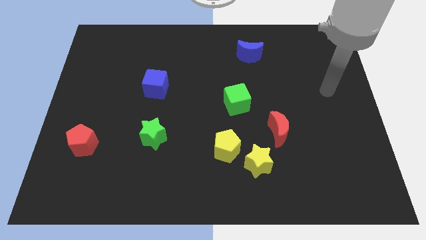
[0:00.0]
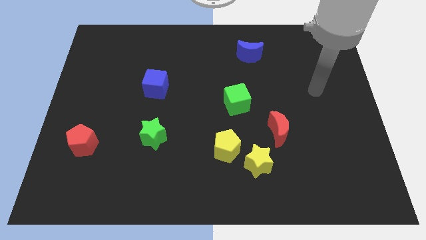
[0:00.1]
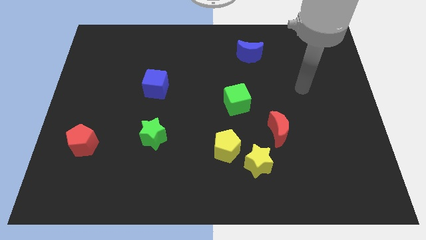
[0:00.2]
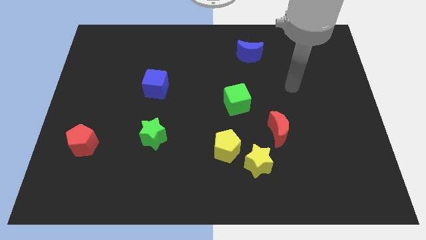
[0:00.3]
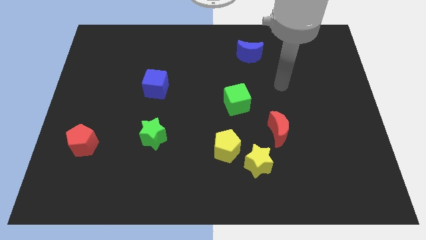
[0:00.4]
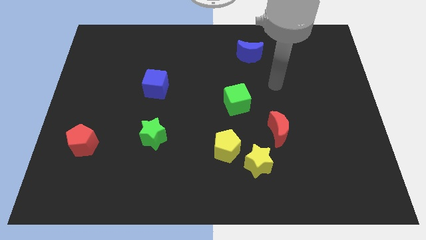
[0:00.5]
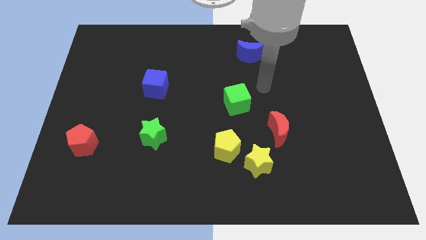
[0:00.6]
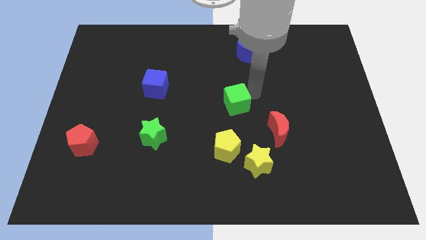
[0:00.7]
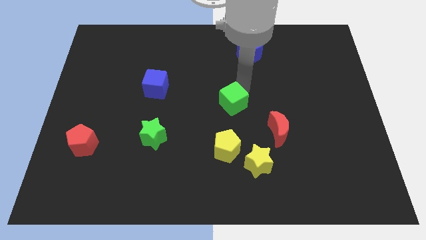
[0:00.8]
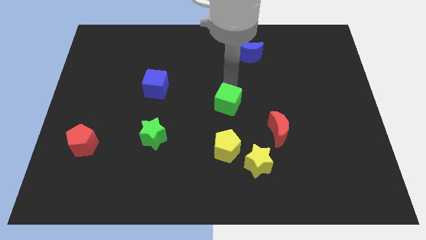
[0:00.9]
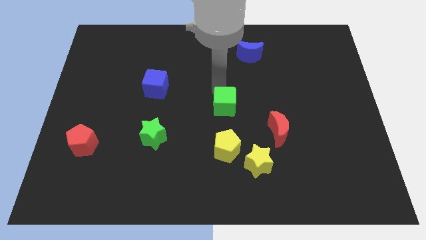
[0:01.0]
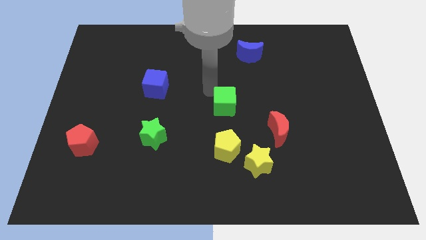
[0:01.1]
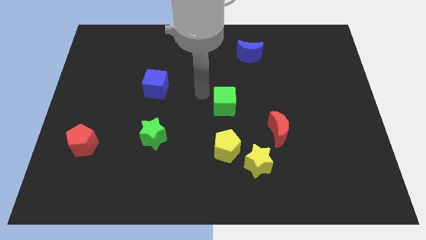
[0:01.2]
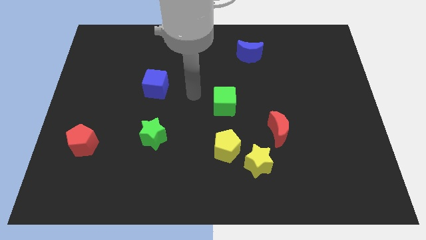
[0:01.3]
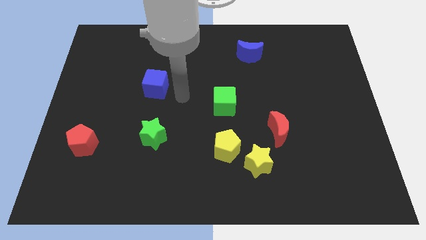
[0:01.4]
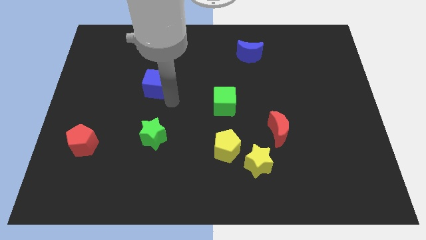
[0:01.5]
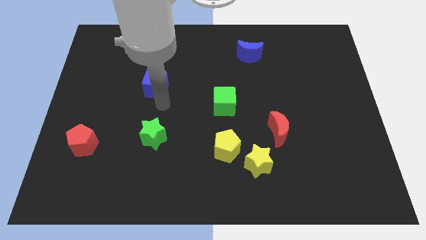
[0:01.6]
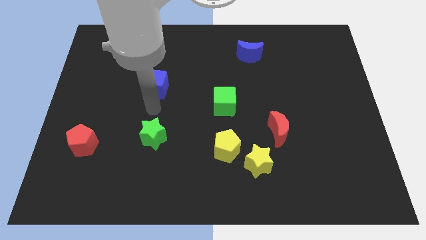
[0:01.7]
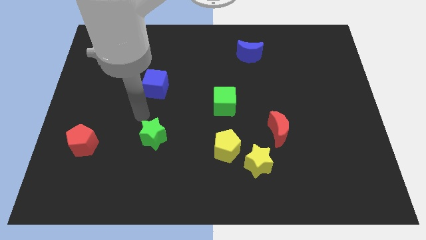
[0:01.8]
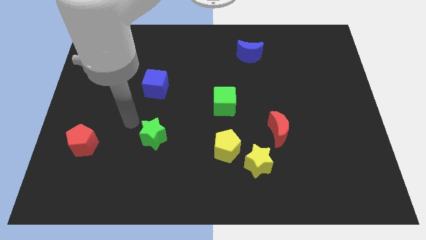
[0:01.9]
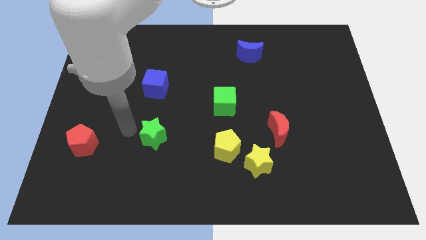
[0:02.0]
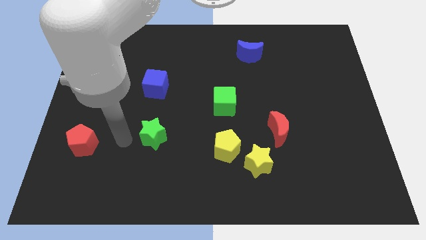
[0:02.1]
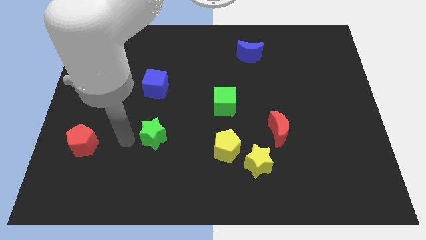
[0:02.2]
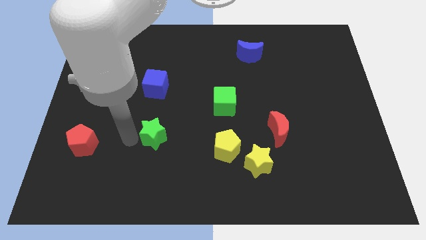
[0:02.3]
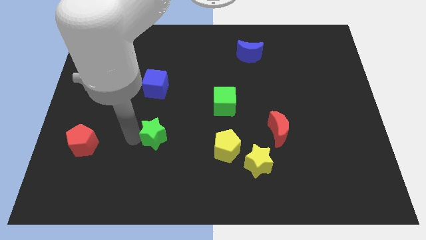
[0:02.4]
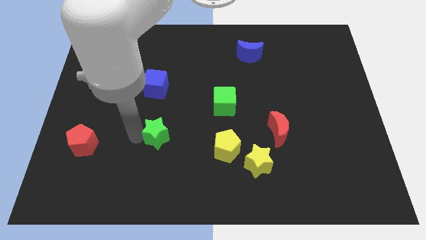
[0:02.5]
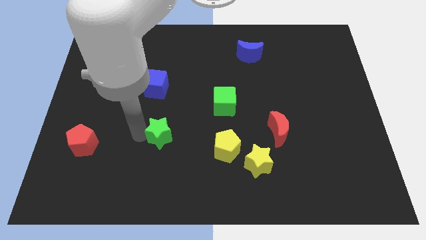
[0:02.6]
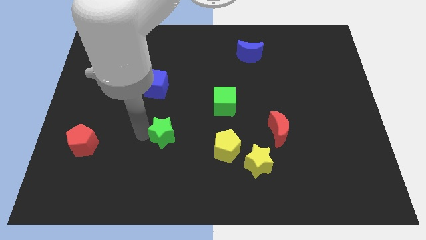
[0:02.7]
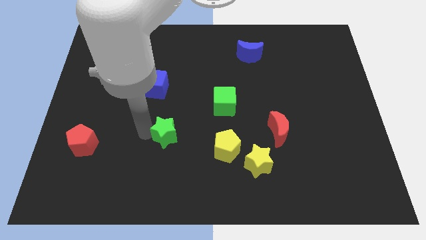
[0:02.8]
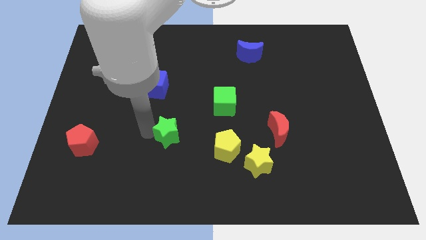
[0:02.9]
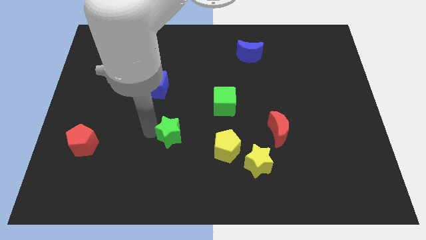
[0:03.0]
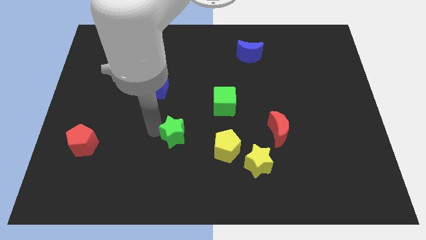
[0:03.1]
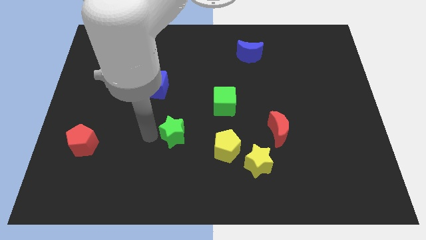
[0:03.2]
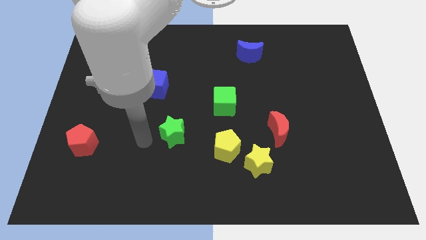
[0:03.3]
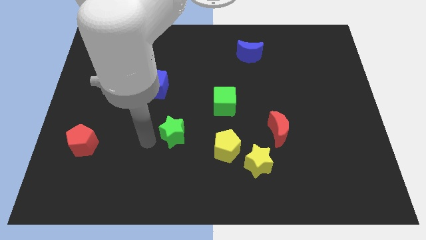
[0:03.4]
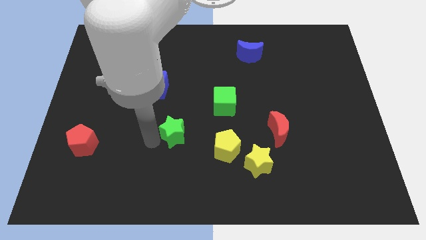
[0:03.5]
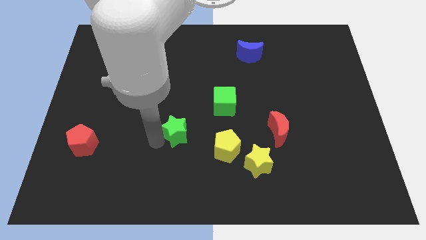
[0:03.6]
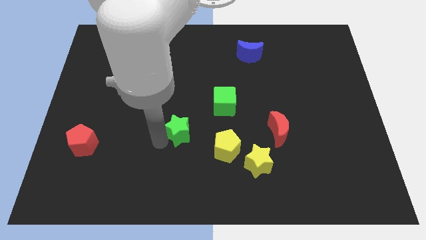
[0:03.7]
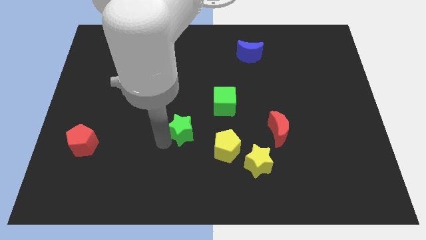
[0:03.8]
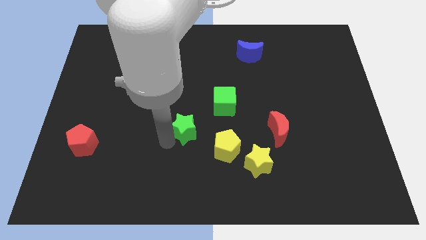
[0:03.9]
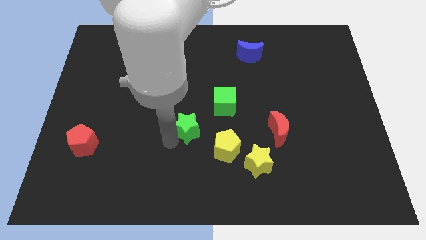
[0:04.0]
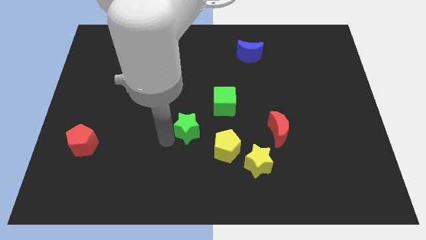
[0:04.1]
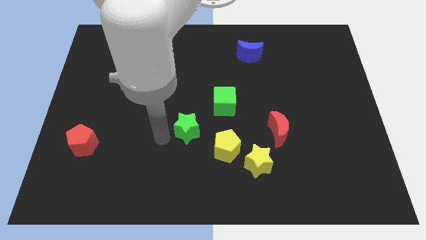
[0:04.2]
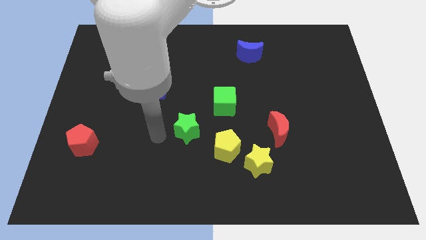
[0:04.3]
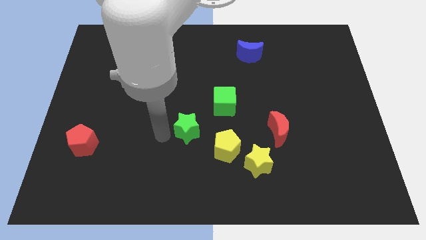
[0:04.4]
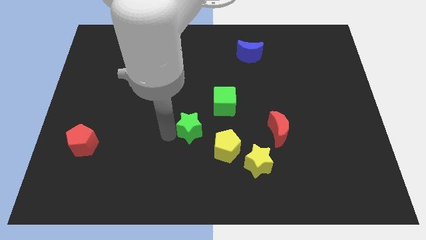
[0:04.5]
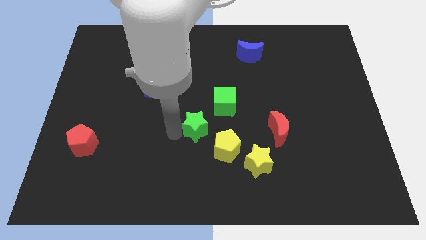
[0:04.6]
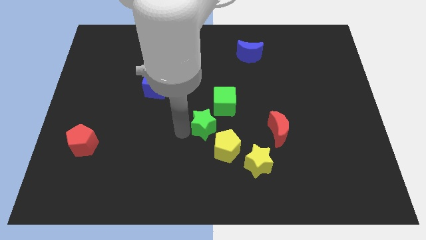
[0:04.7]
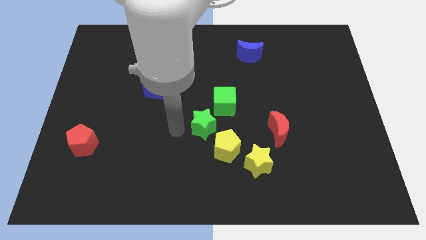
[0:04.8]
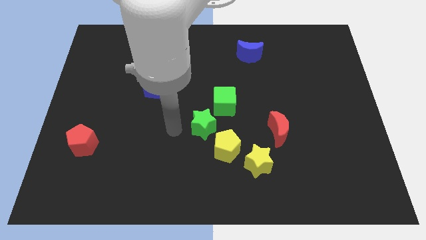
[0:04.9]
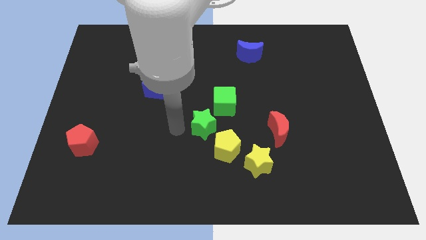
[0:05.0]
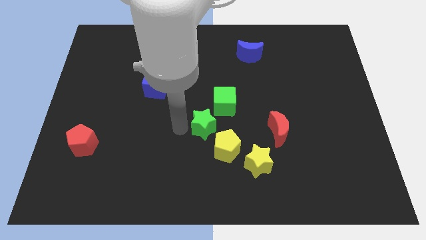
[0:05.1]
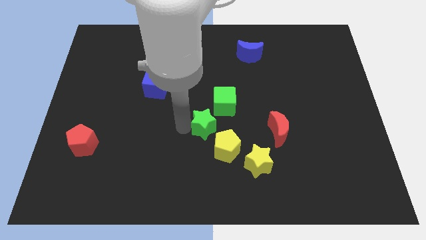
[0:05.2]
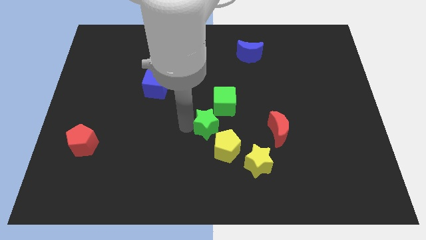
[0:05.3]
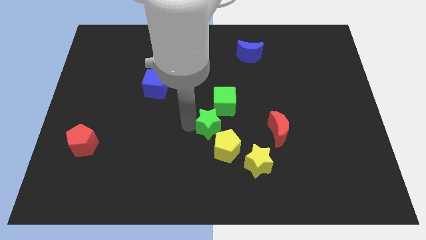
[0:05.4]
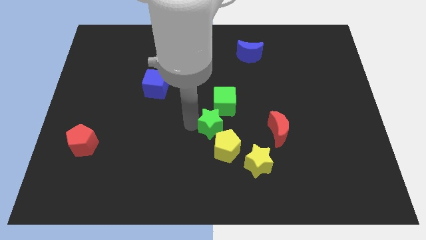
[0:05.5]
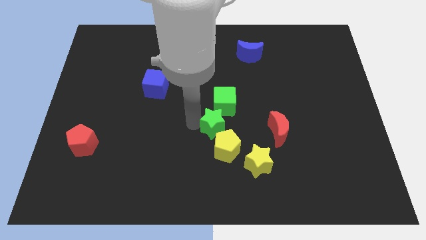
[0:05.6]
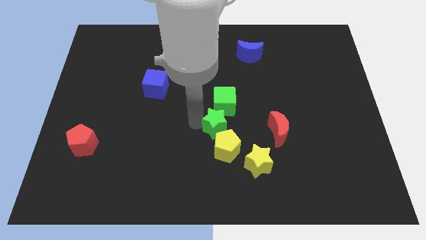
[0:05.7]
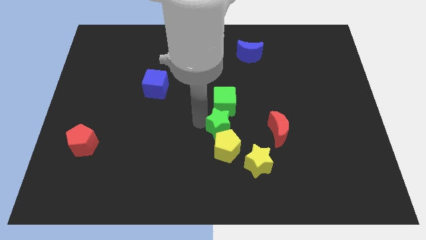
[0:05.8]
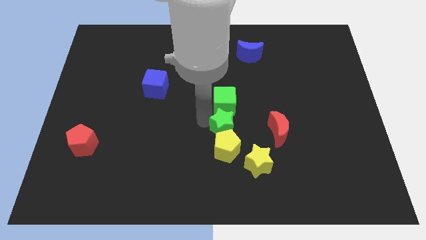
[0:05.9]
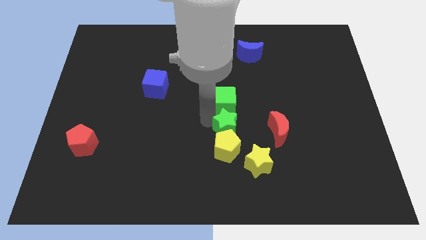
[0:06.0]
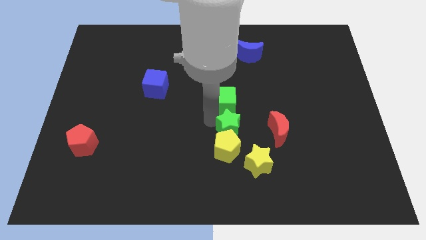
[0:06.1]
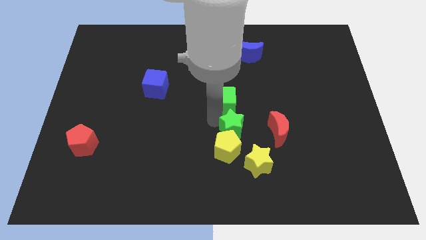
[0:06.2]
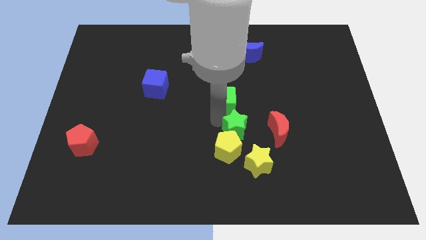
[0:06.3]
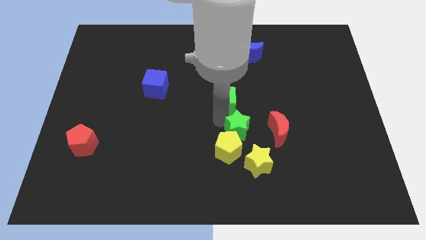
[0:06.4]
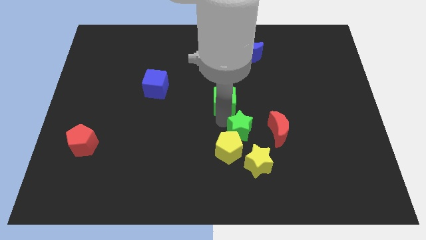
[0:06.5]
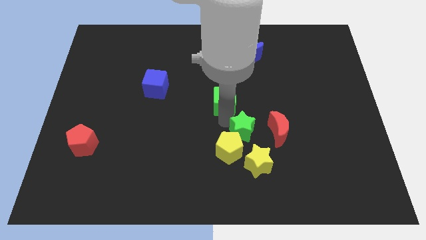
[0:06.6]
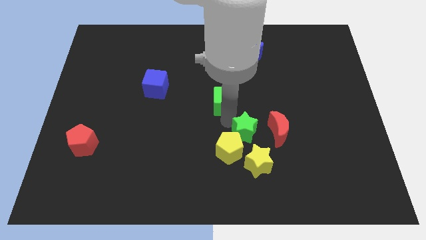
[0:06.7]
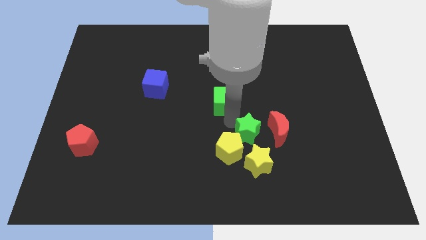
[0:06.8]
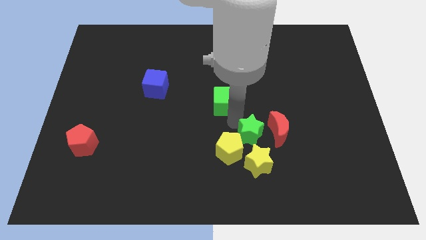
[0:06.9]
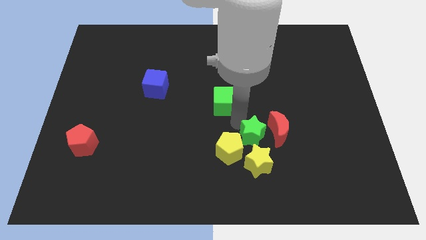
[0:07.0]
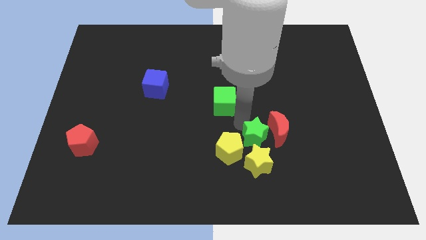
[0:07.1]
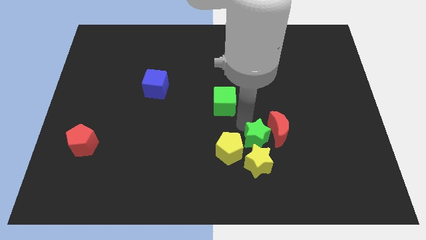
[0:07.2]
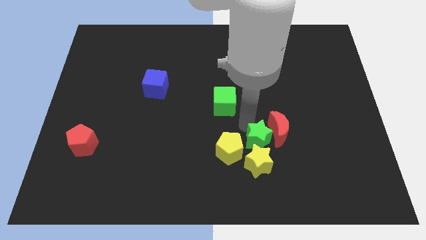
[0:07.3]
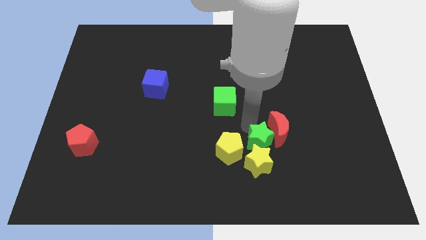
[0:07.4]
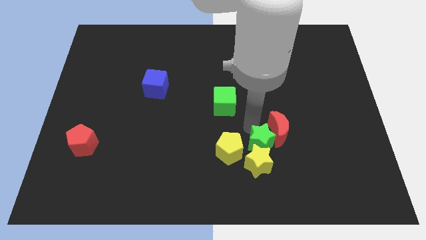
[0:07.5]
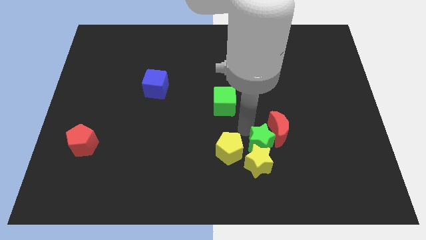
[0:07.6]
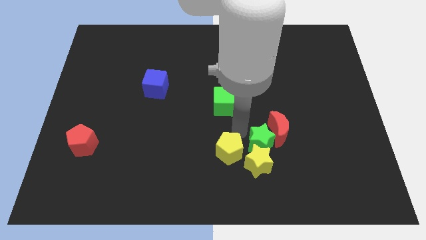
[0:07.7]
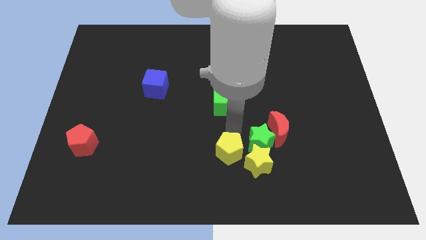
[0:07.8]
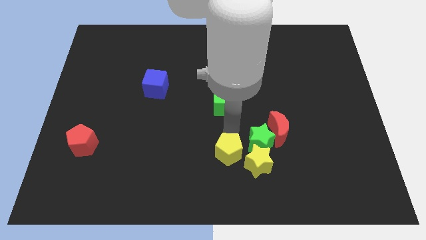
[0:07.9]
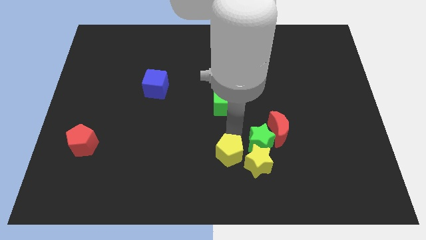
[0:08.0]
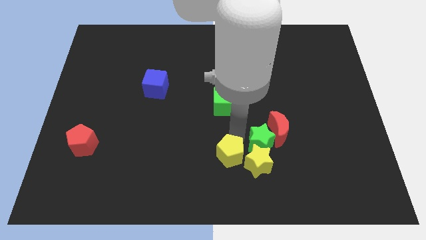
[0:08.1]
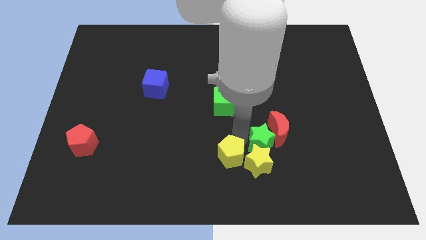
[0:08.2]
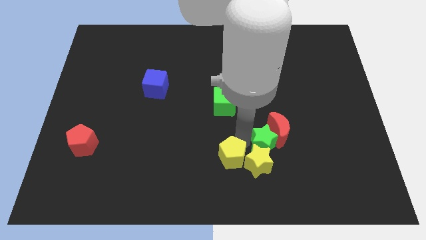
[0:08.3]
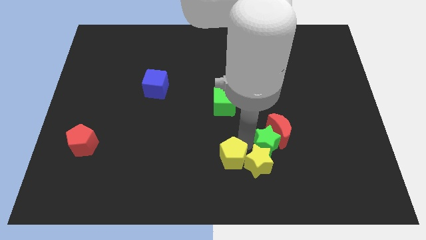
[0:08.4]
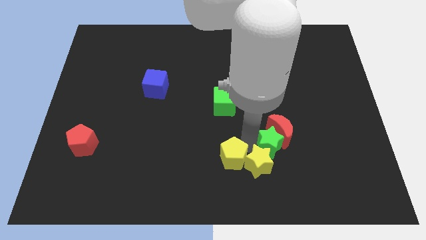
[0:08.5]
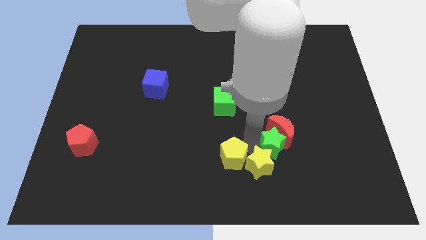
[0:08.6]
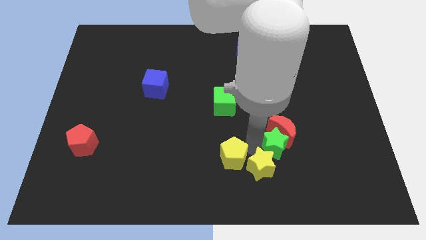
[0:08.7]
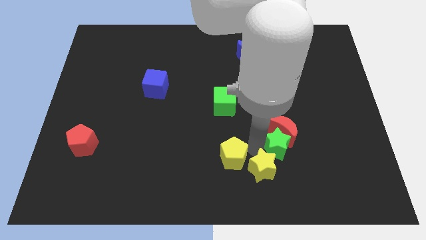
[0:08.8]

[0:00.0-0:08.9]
push the green star diagonally down and to the right of the red moon
